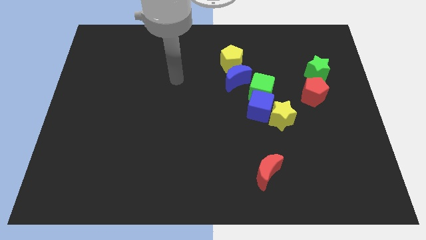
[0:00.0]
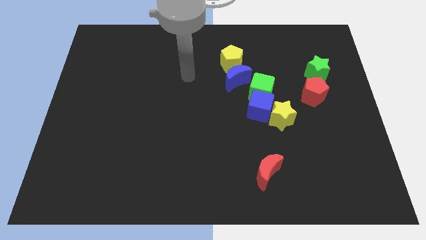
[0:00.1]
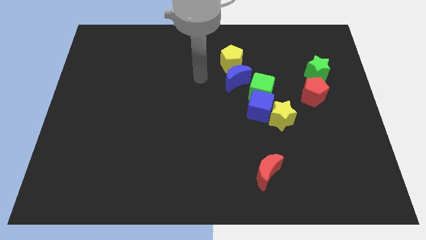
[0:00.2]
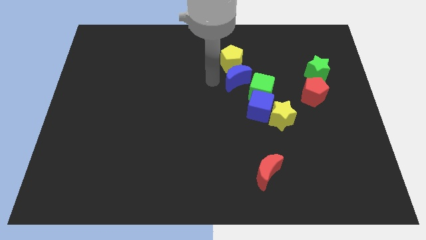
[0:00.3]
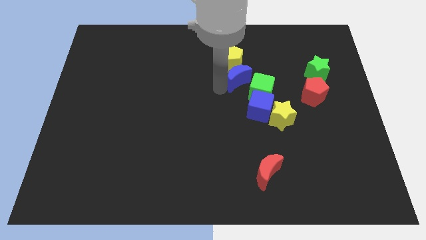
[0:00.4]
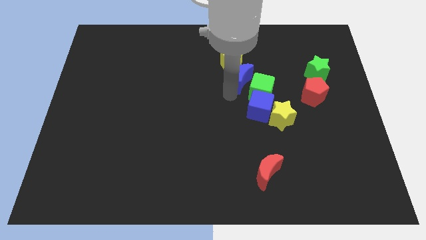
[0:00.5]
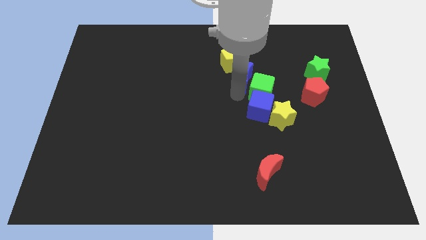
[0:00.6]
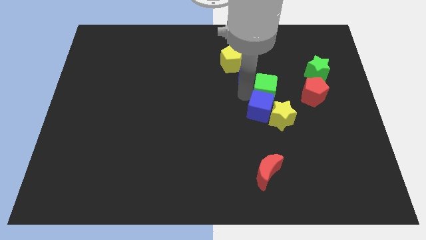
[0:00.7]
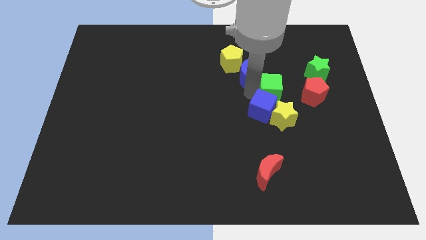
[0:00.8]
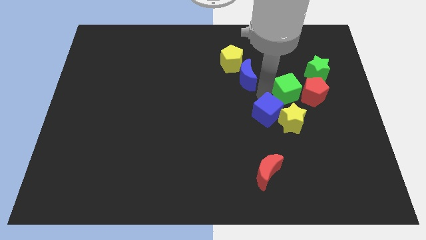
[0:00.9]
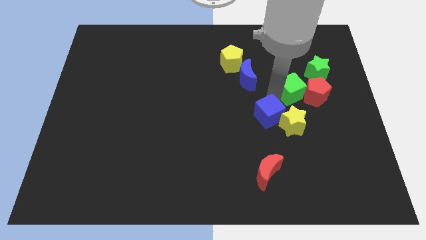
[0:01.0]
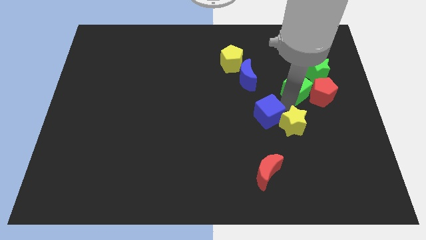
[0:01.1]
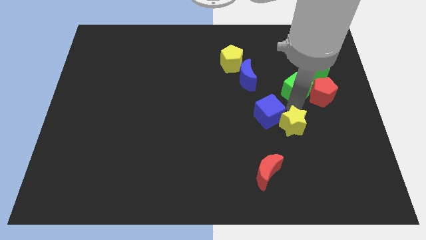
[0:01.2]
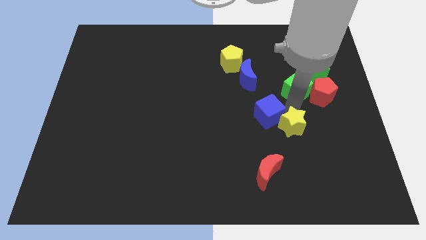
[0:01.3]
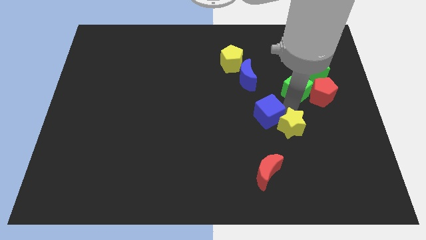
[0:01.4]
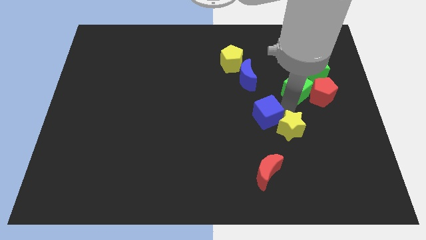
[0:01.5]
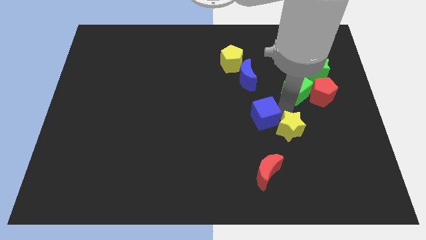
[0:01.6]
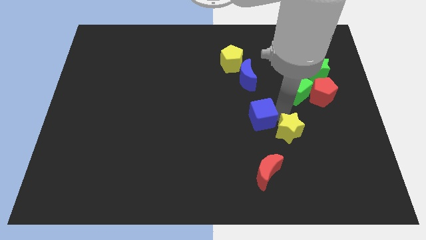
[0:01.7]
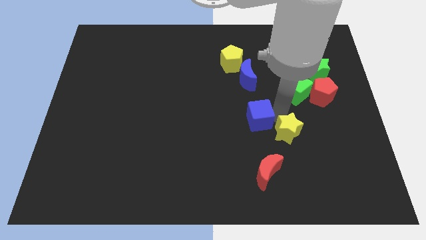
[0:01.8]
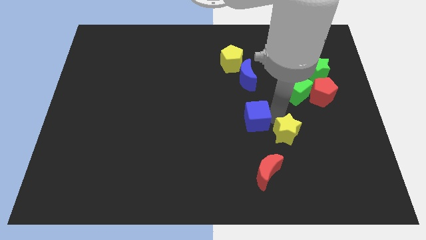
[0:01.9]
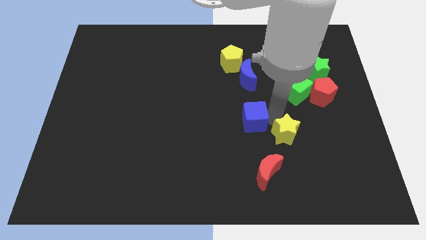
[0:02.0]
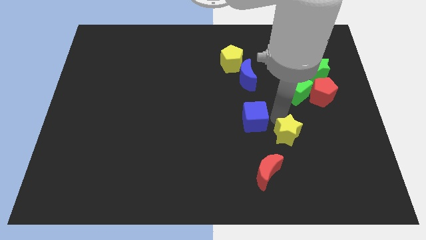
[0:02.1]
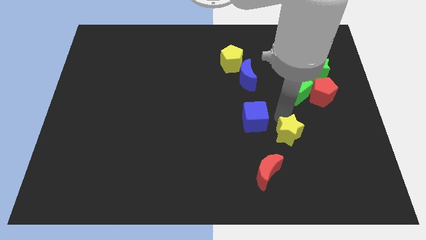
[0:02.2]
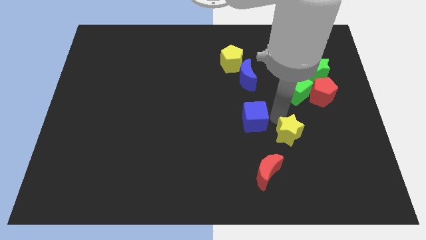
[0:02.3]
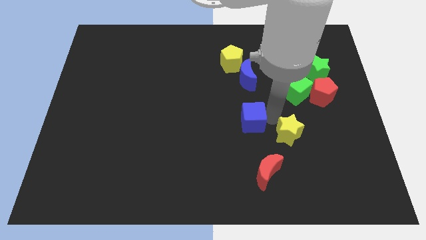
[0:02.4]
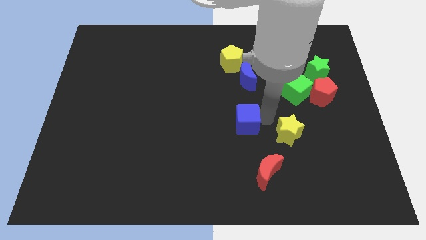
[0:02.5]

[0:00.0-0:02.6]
separate the blue cube from the green cube and yellow star

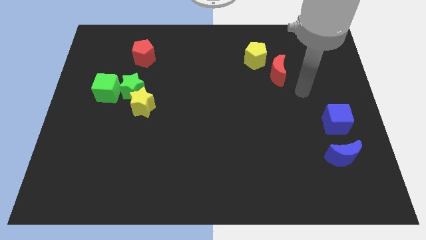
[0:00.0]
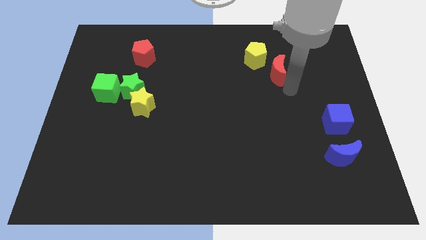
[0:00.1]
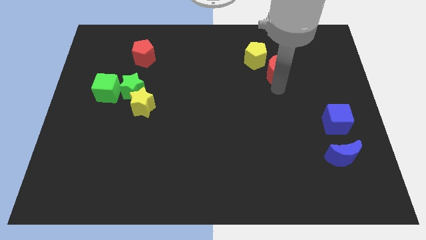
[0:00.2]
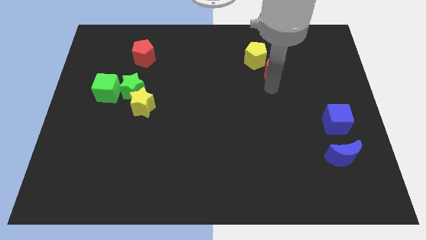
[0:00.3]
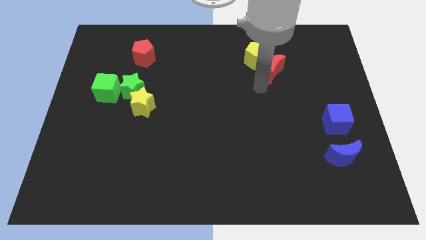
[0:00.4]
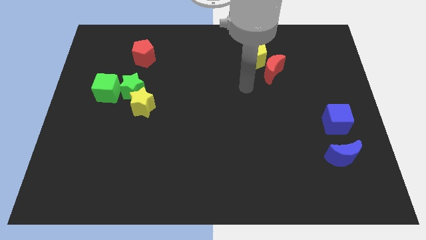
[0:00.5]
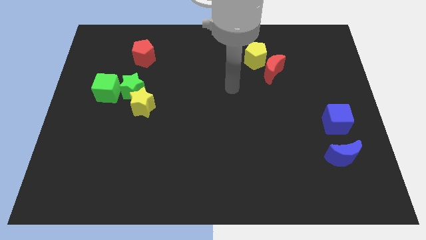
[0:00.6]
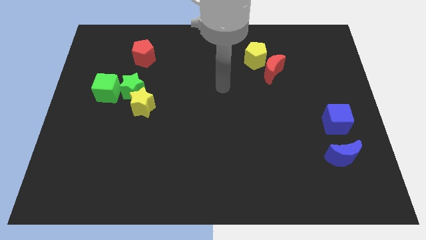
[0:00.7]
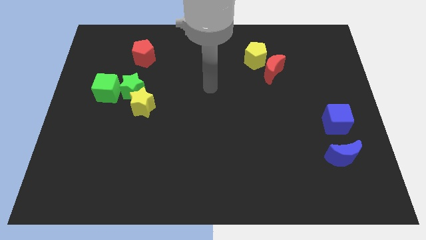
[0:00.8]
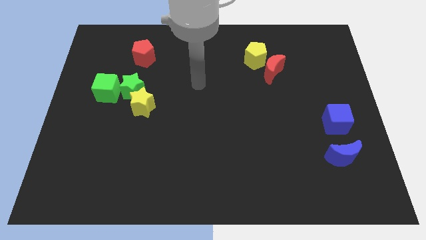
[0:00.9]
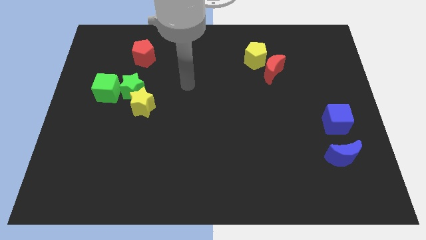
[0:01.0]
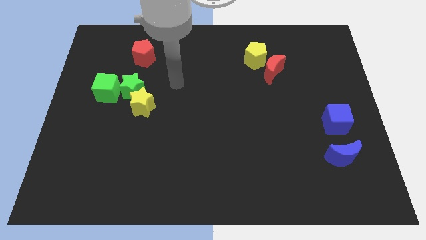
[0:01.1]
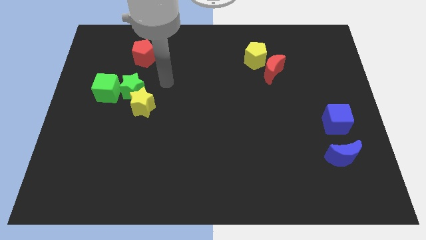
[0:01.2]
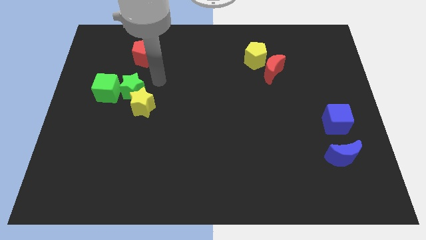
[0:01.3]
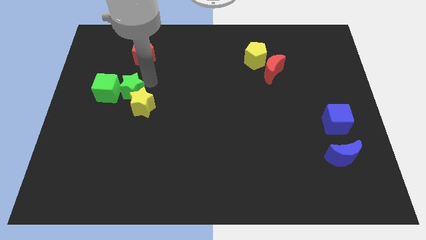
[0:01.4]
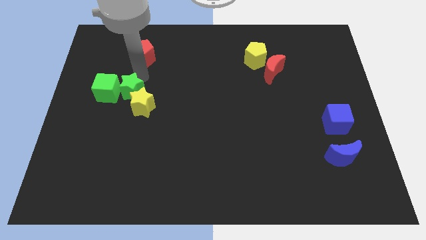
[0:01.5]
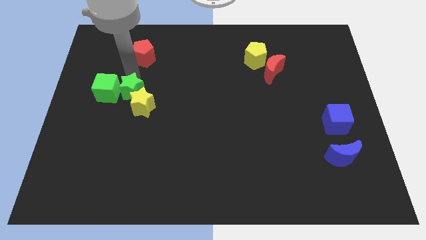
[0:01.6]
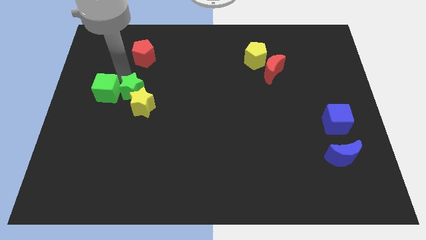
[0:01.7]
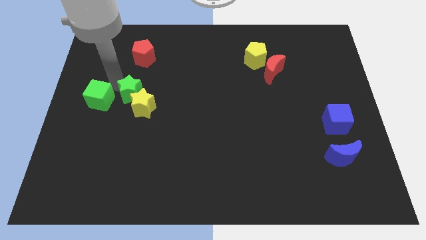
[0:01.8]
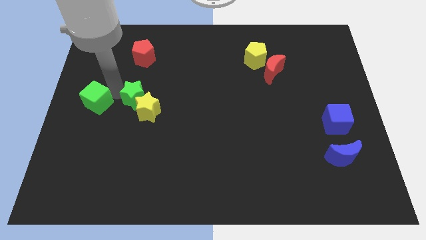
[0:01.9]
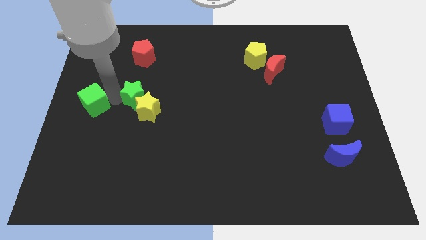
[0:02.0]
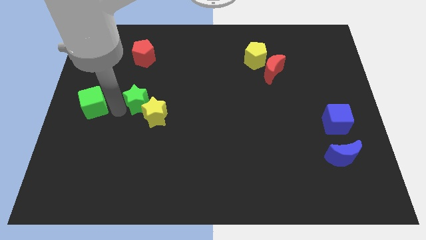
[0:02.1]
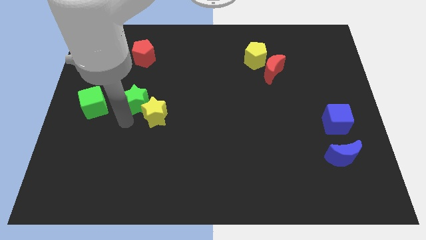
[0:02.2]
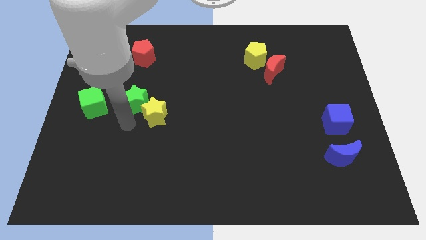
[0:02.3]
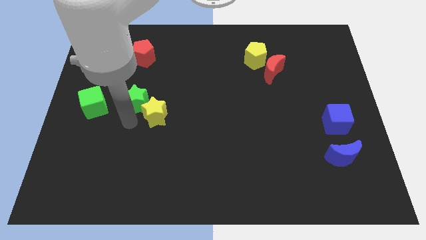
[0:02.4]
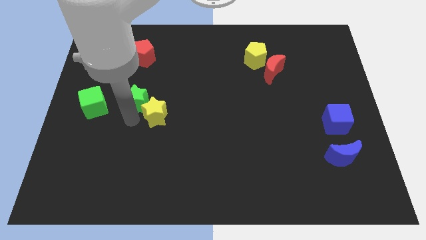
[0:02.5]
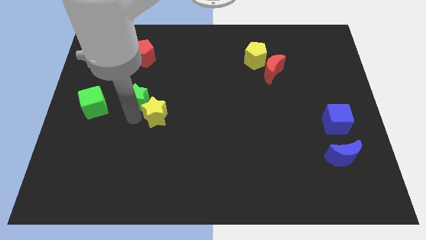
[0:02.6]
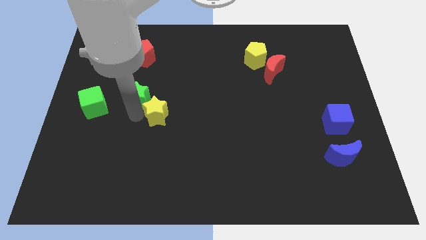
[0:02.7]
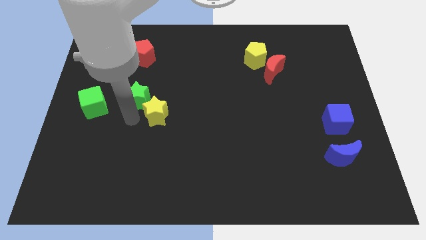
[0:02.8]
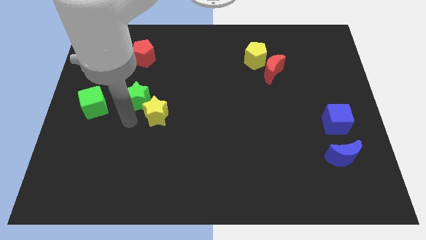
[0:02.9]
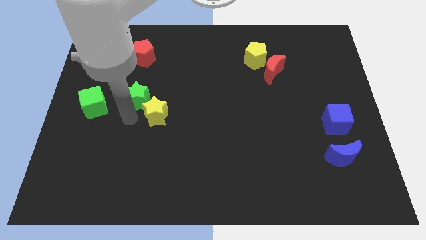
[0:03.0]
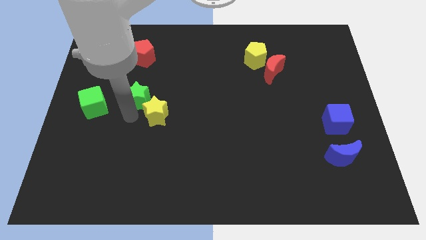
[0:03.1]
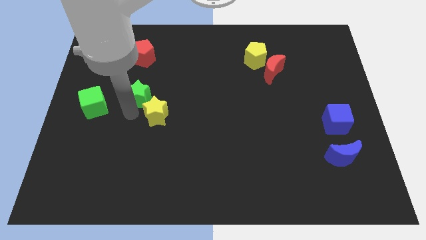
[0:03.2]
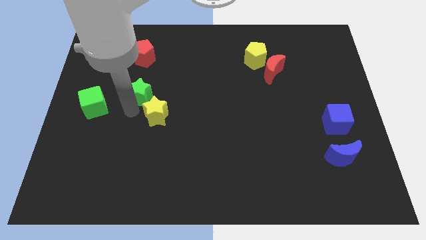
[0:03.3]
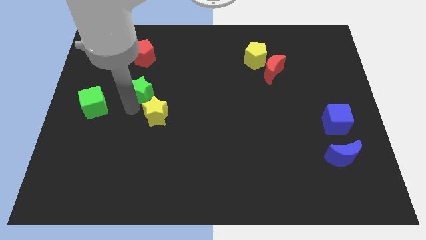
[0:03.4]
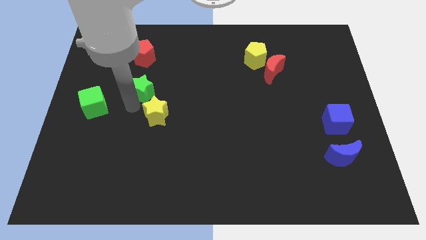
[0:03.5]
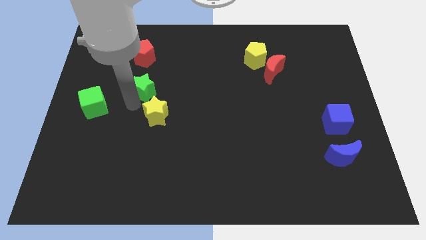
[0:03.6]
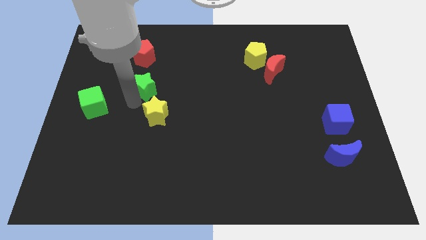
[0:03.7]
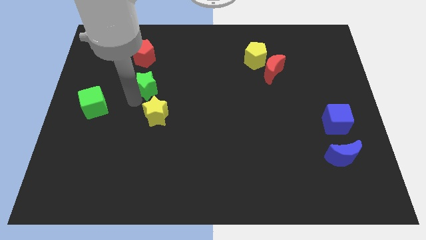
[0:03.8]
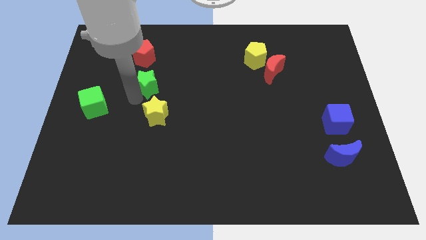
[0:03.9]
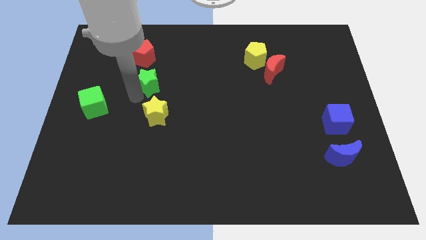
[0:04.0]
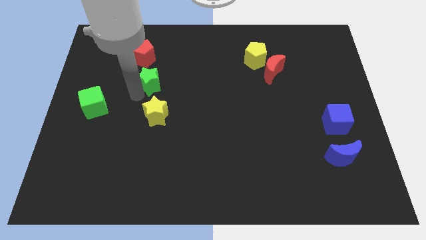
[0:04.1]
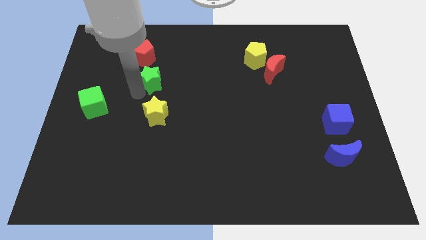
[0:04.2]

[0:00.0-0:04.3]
separate the green star from the yellow star and green cube

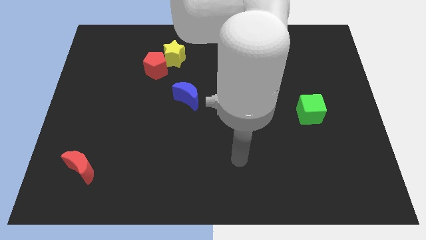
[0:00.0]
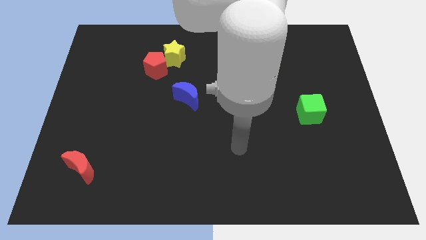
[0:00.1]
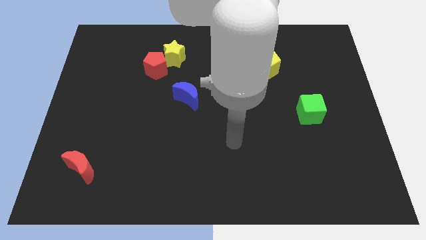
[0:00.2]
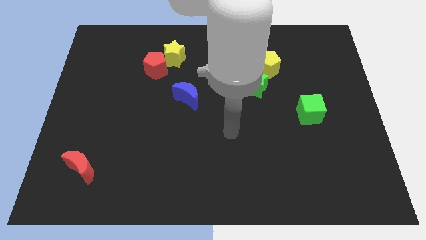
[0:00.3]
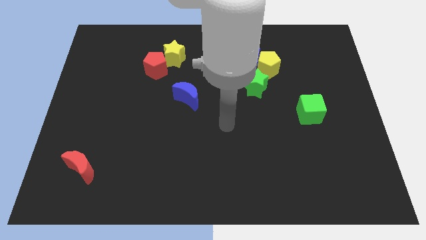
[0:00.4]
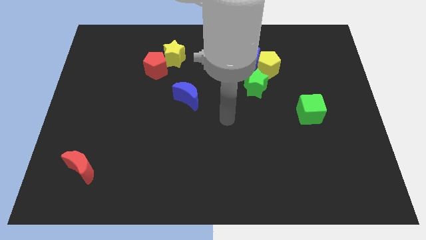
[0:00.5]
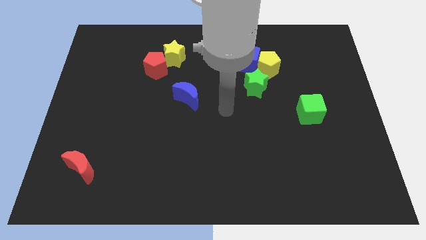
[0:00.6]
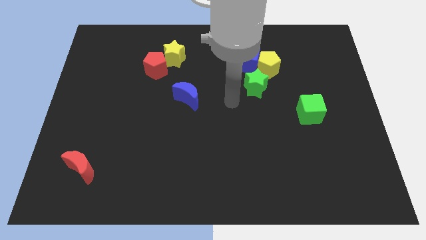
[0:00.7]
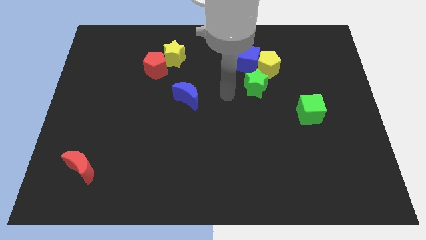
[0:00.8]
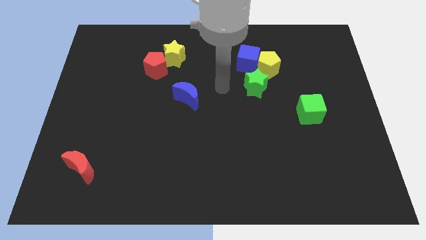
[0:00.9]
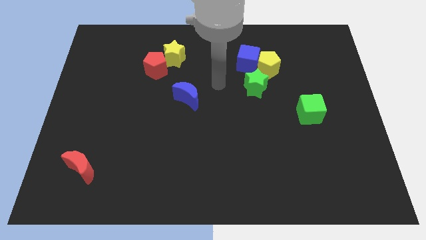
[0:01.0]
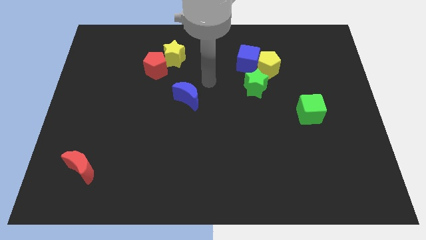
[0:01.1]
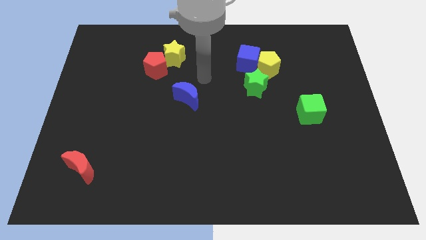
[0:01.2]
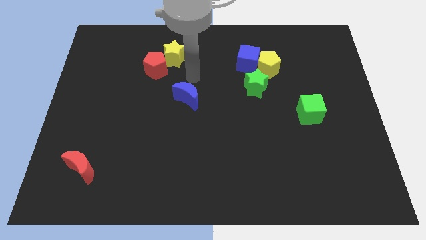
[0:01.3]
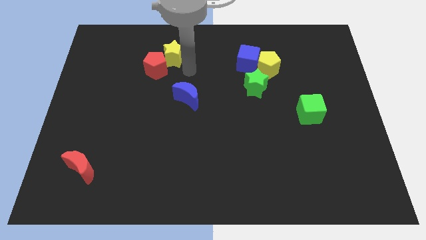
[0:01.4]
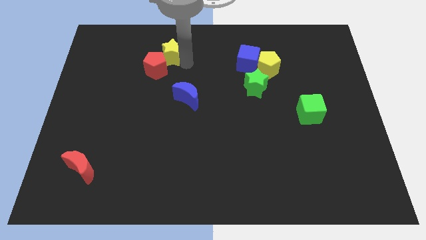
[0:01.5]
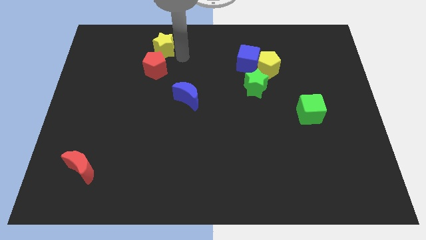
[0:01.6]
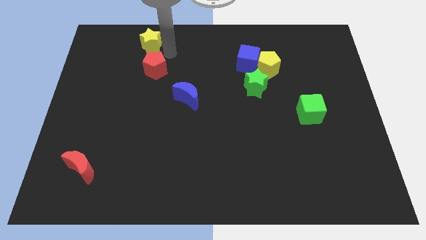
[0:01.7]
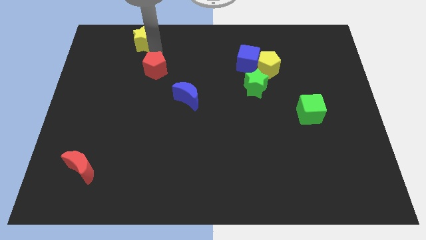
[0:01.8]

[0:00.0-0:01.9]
move the red pentagon away from the yellow star
